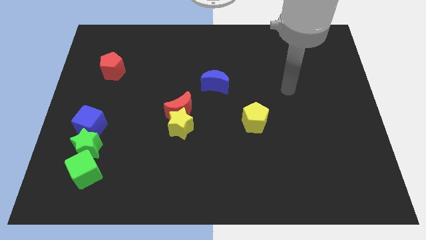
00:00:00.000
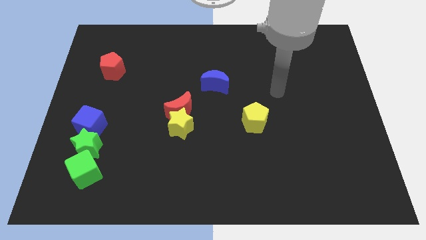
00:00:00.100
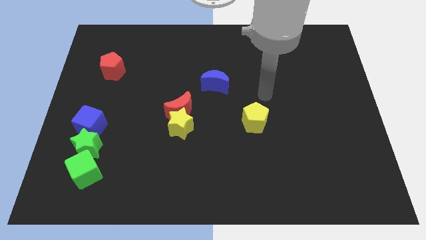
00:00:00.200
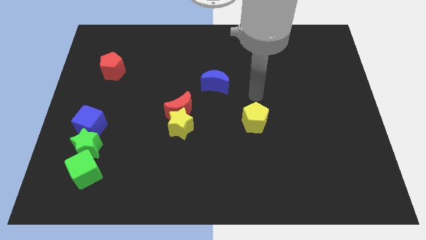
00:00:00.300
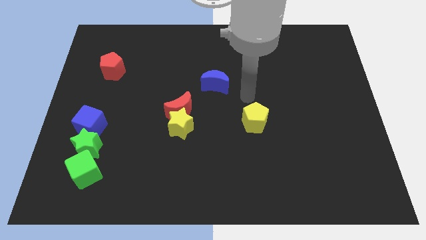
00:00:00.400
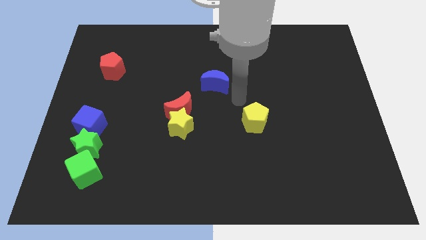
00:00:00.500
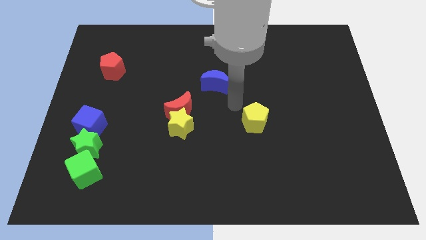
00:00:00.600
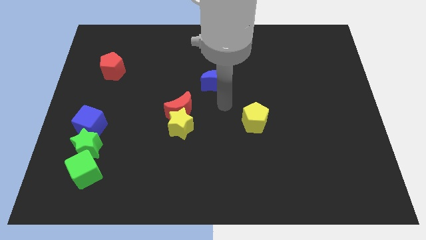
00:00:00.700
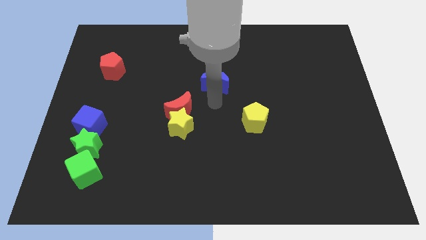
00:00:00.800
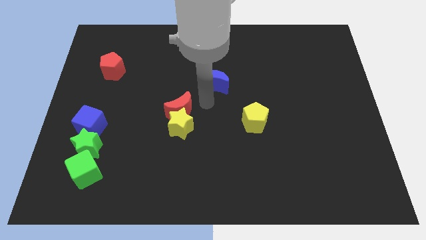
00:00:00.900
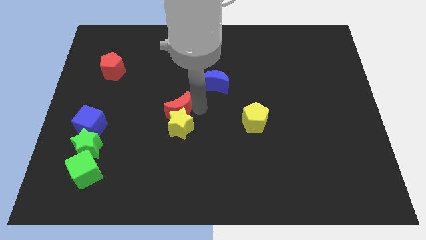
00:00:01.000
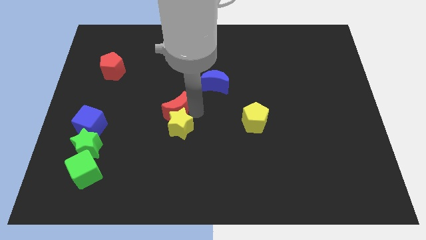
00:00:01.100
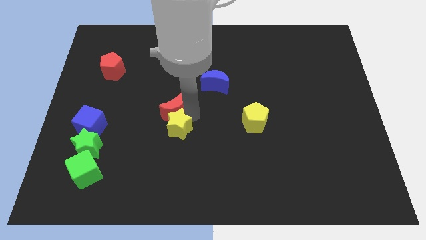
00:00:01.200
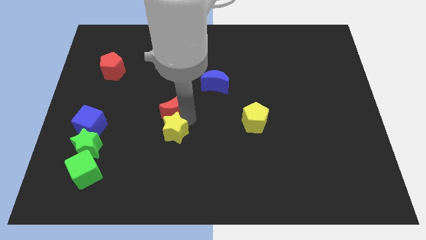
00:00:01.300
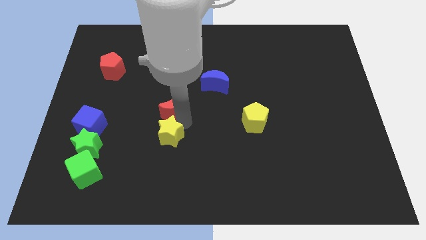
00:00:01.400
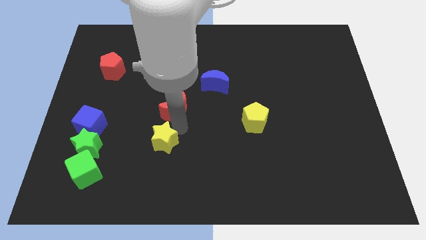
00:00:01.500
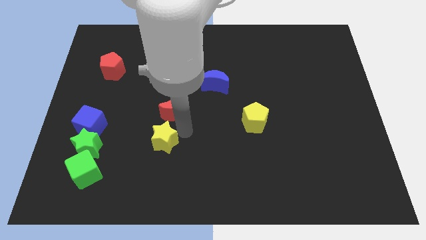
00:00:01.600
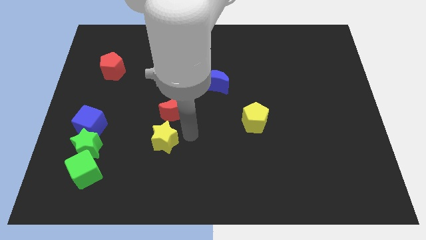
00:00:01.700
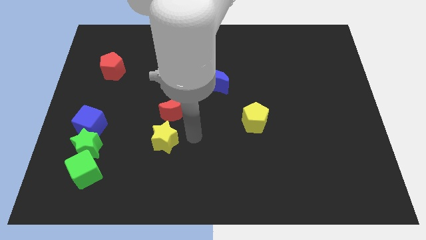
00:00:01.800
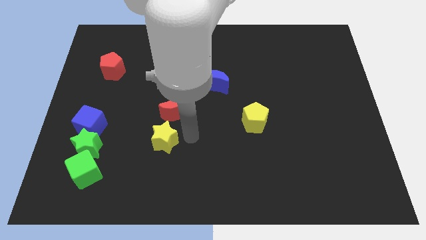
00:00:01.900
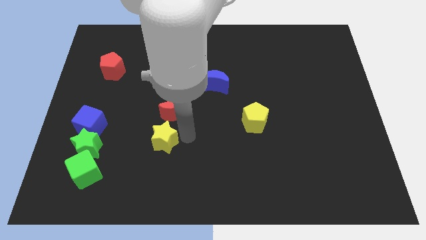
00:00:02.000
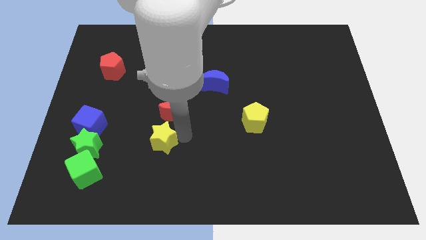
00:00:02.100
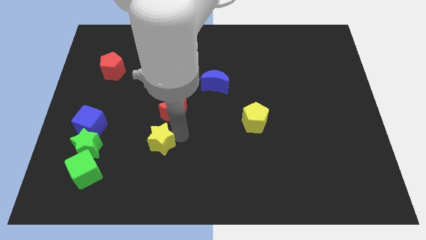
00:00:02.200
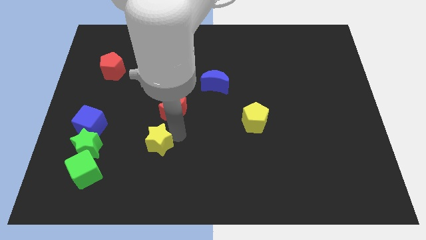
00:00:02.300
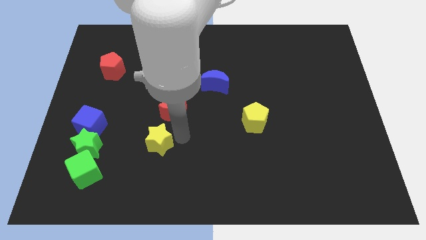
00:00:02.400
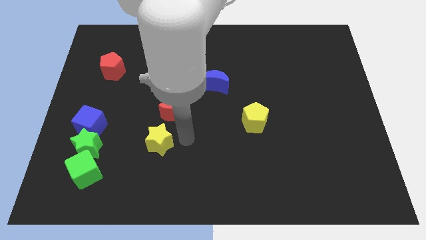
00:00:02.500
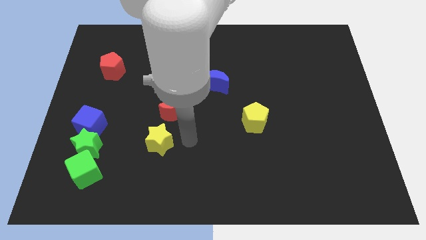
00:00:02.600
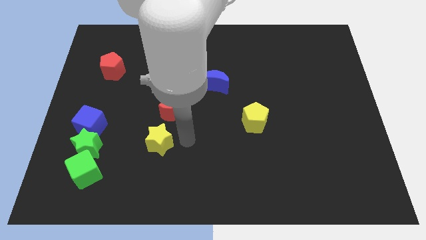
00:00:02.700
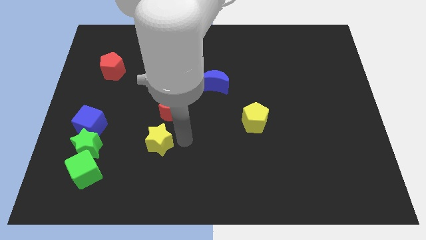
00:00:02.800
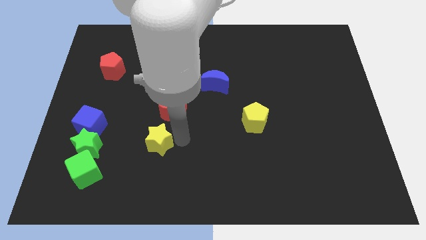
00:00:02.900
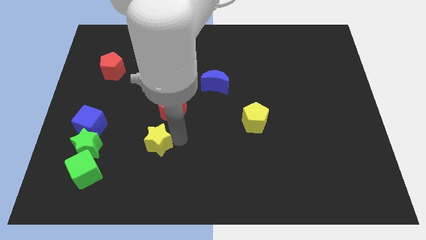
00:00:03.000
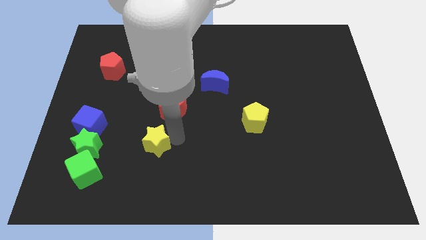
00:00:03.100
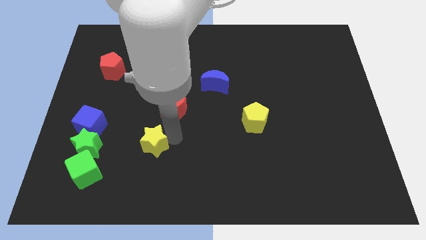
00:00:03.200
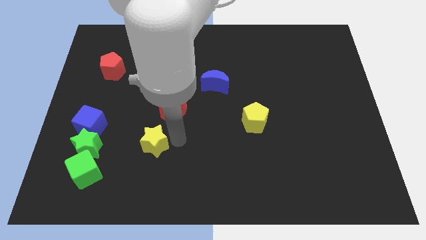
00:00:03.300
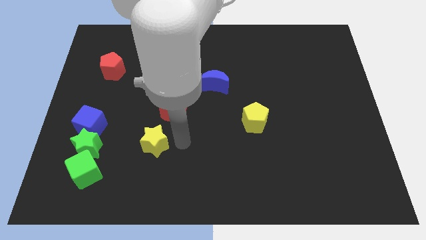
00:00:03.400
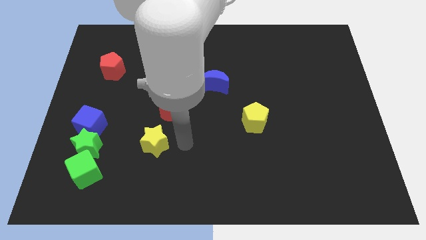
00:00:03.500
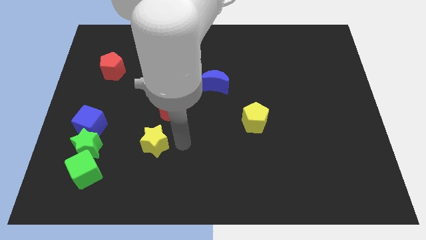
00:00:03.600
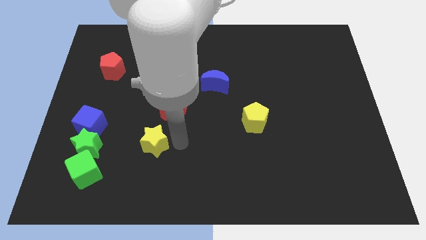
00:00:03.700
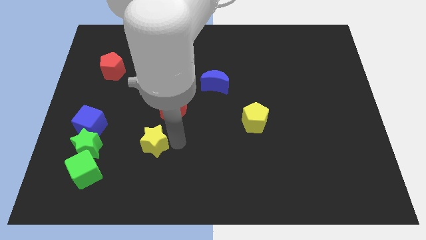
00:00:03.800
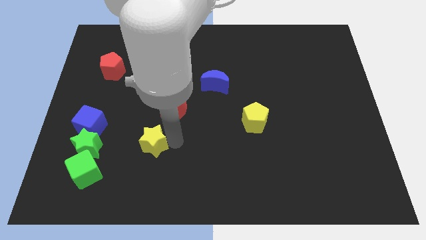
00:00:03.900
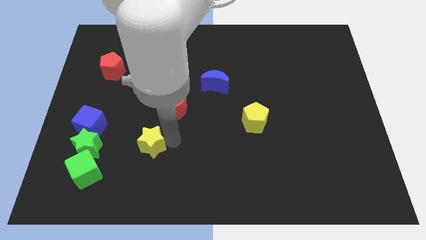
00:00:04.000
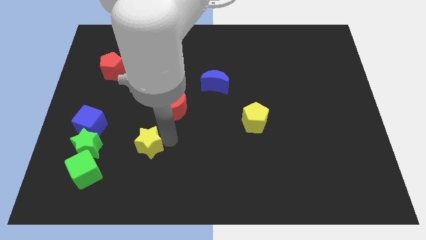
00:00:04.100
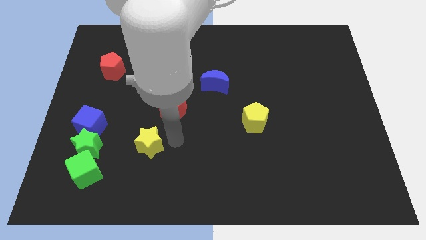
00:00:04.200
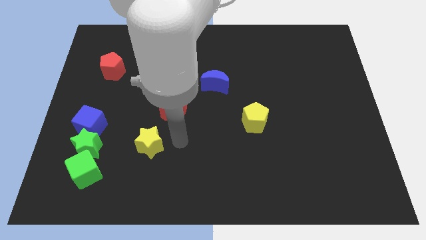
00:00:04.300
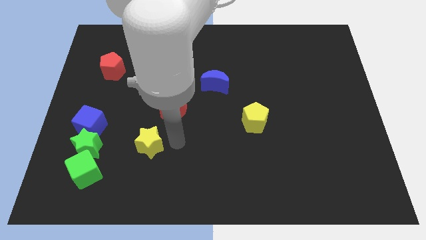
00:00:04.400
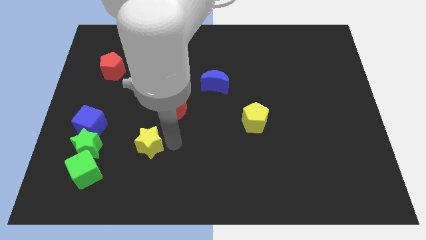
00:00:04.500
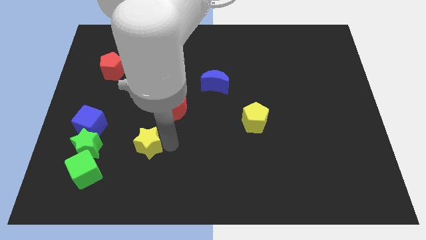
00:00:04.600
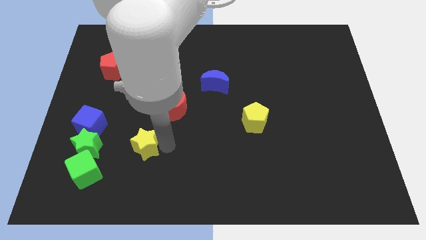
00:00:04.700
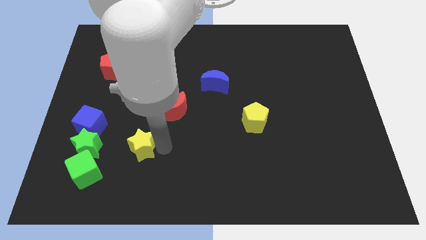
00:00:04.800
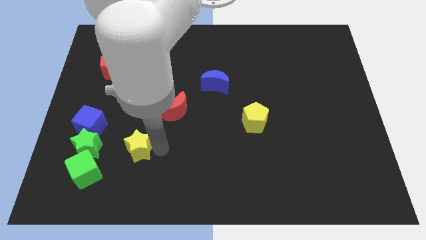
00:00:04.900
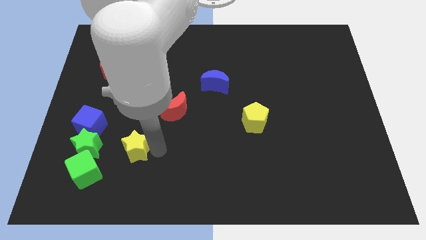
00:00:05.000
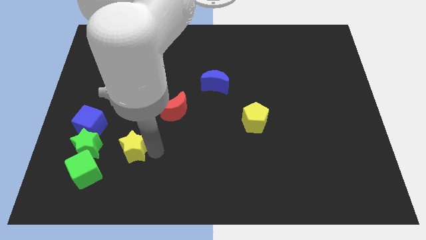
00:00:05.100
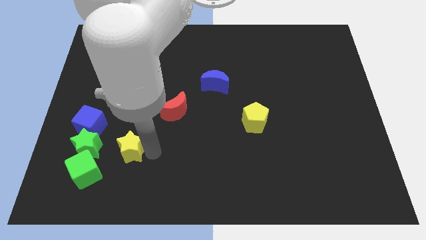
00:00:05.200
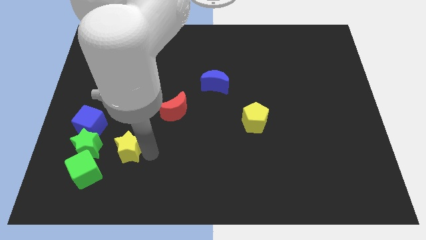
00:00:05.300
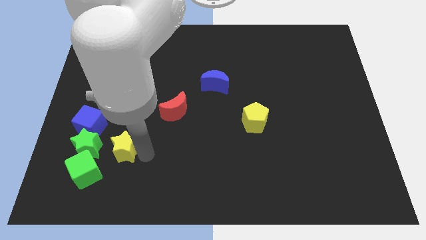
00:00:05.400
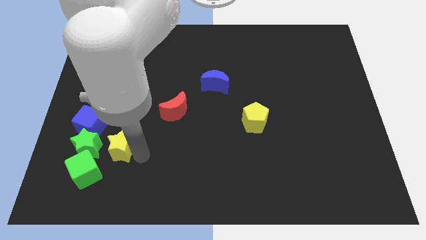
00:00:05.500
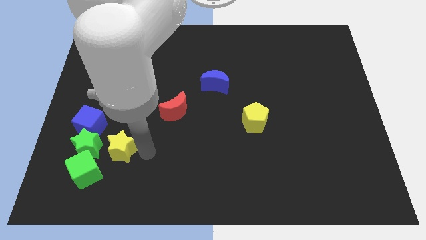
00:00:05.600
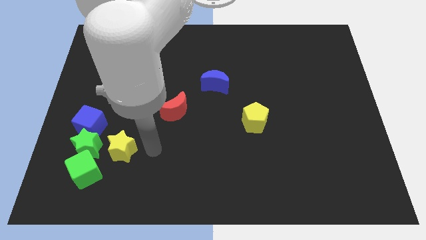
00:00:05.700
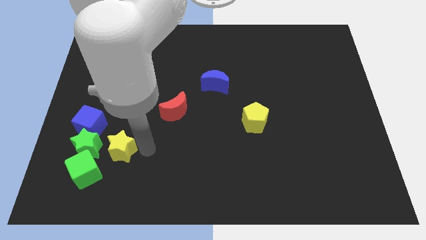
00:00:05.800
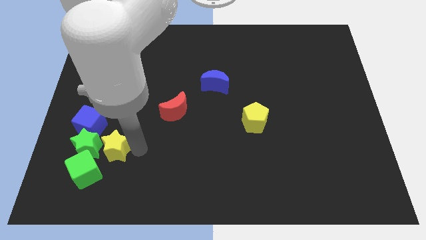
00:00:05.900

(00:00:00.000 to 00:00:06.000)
push the yellow star to the green star

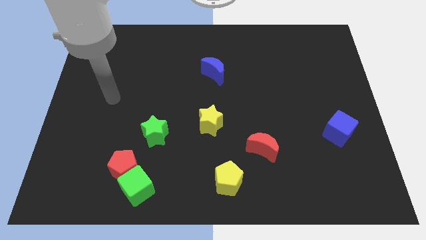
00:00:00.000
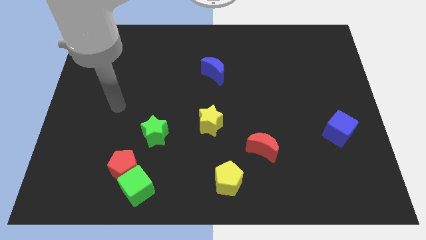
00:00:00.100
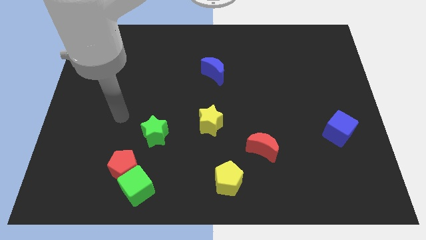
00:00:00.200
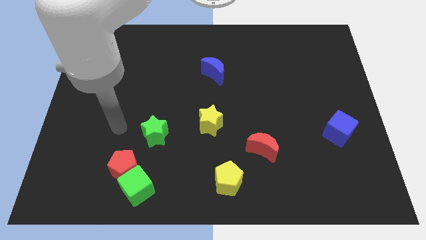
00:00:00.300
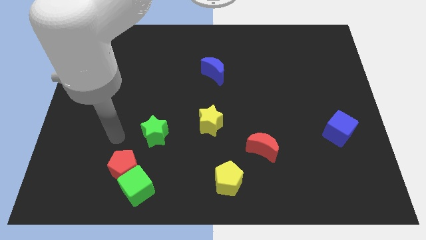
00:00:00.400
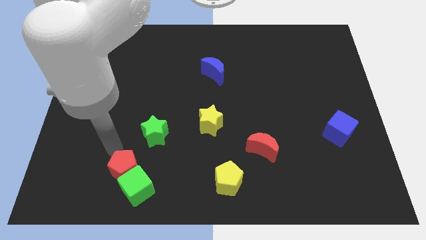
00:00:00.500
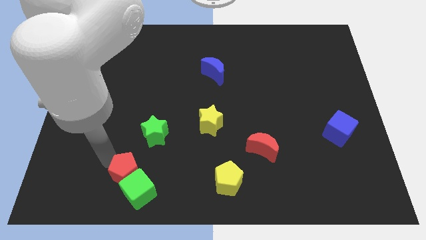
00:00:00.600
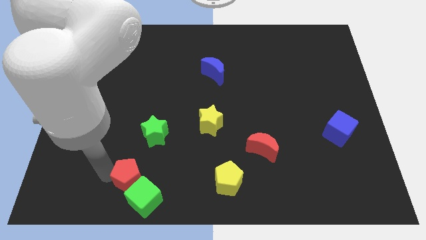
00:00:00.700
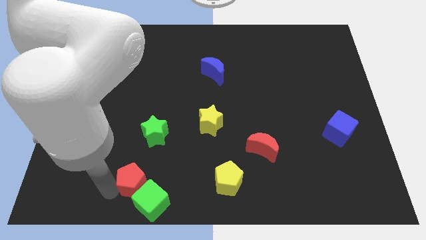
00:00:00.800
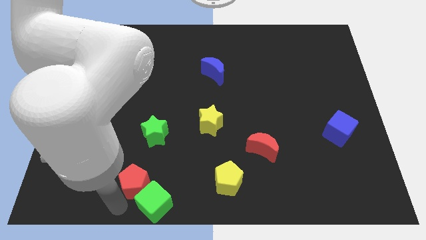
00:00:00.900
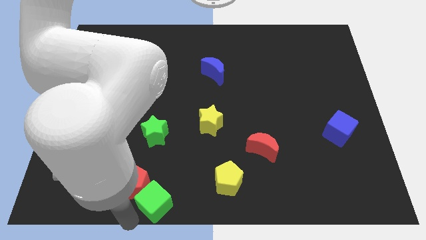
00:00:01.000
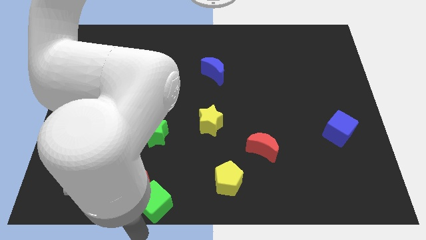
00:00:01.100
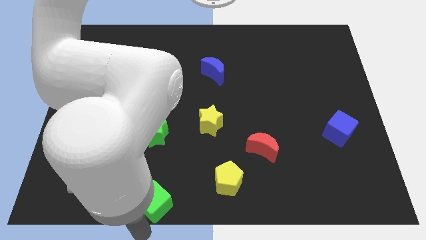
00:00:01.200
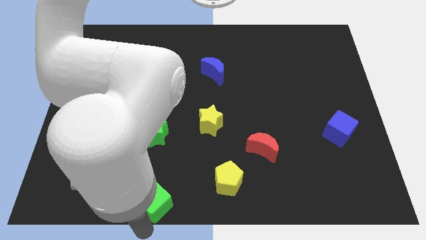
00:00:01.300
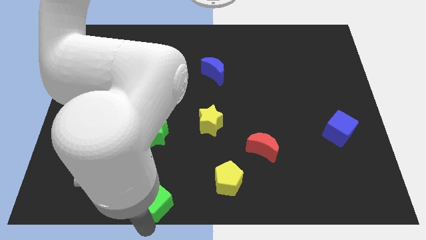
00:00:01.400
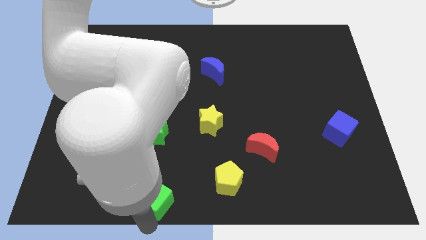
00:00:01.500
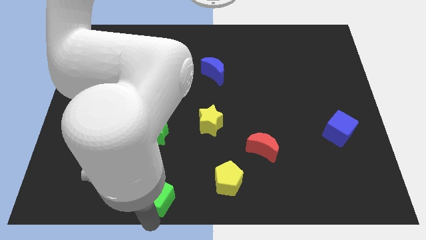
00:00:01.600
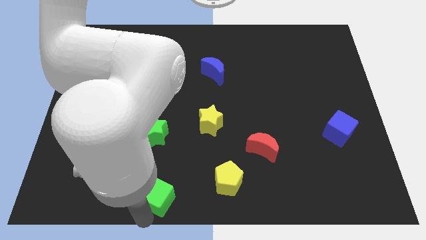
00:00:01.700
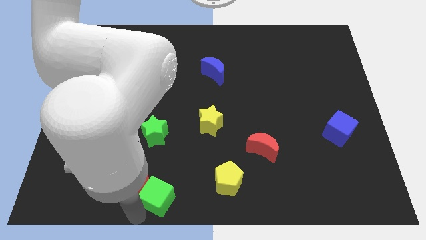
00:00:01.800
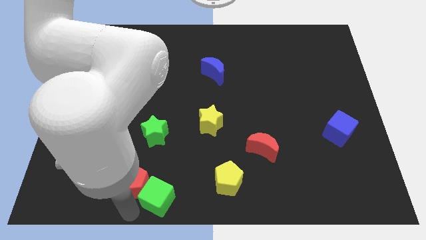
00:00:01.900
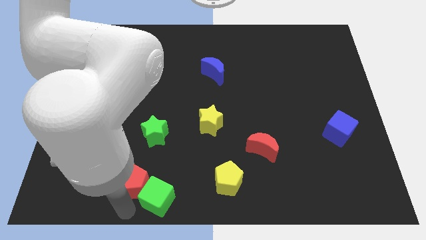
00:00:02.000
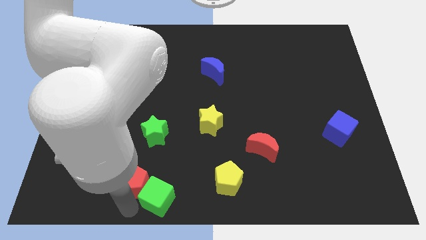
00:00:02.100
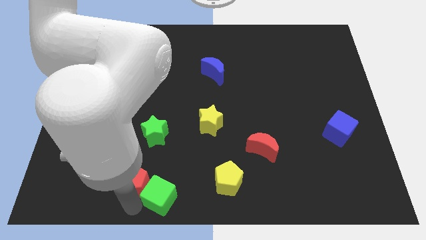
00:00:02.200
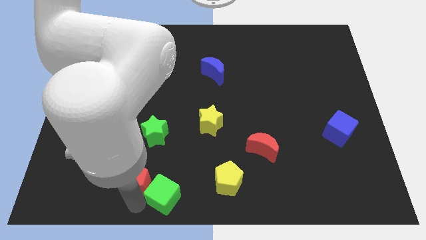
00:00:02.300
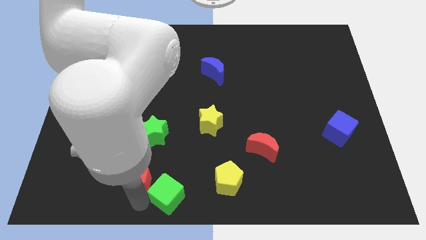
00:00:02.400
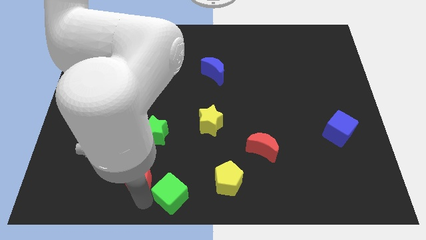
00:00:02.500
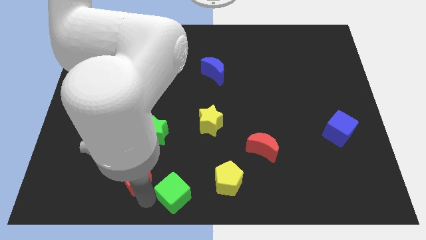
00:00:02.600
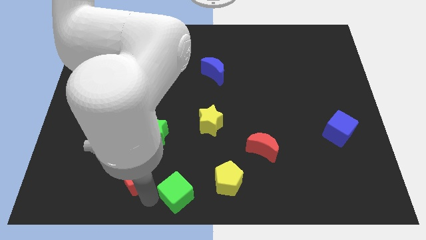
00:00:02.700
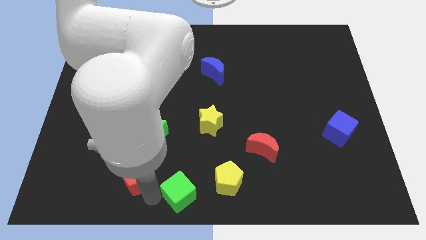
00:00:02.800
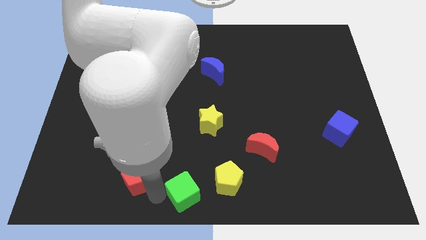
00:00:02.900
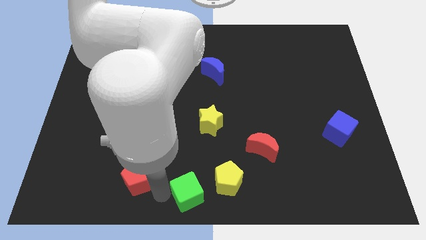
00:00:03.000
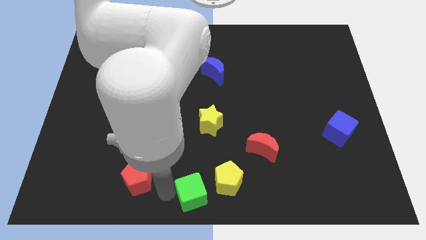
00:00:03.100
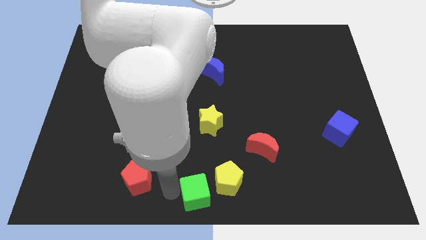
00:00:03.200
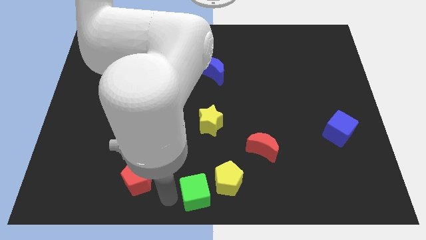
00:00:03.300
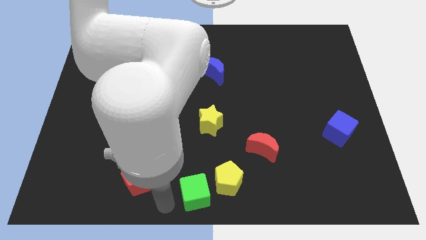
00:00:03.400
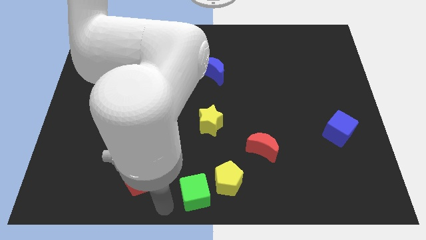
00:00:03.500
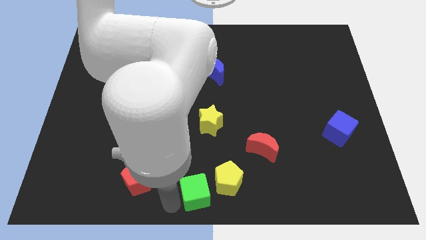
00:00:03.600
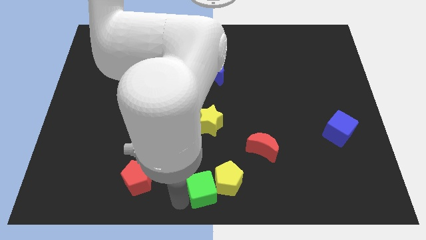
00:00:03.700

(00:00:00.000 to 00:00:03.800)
move the green cube to the yellow pentagon
